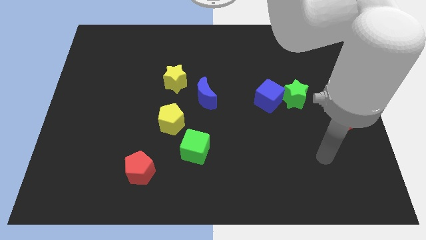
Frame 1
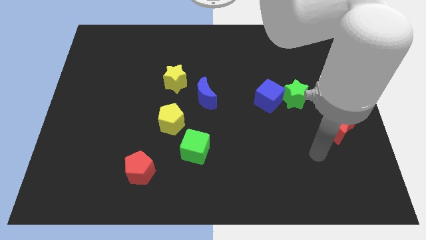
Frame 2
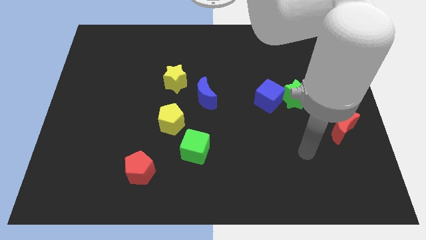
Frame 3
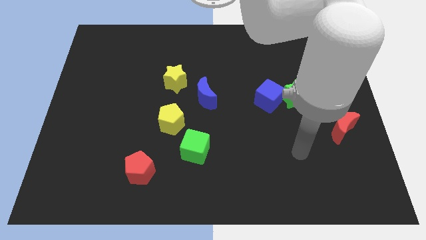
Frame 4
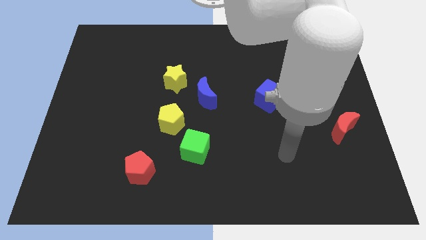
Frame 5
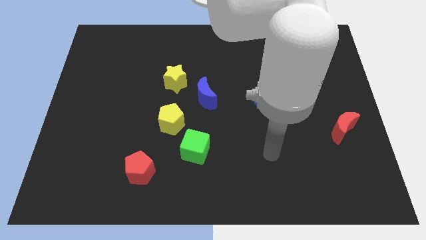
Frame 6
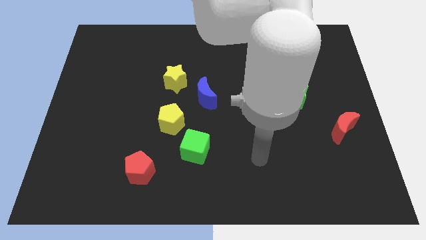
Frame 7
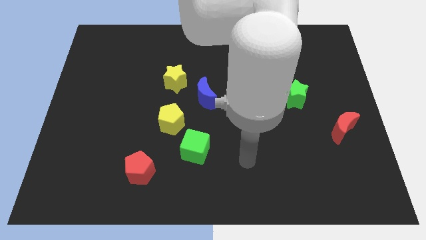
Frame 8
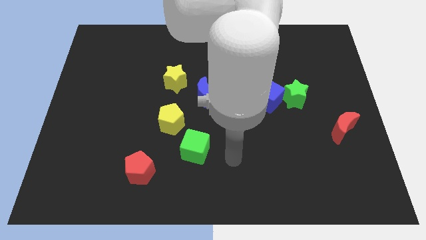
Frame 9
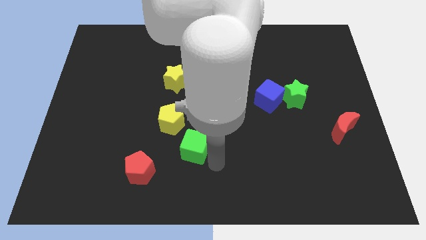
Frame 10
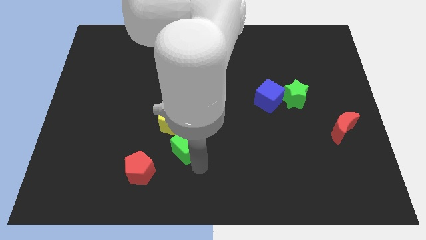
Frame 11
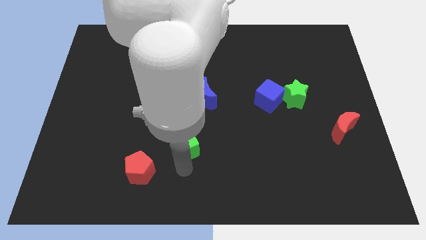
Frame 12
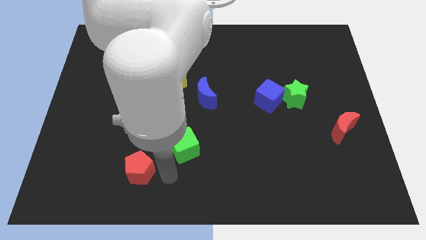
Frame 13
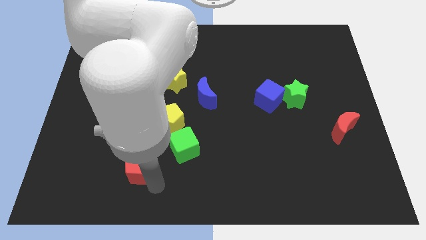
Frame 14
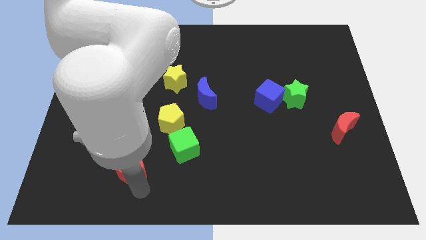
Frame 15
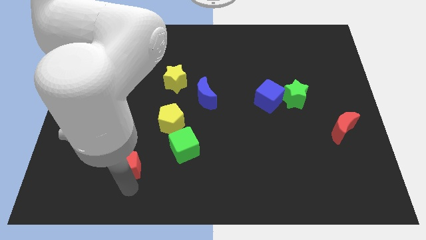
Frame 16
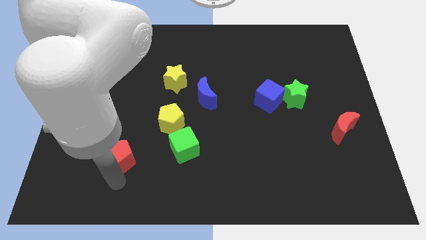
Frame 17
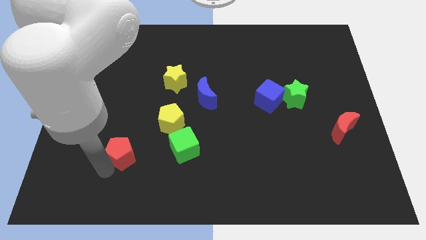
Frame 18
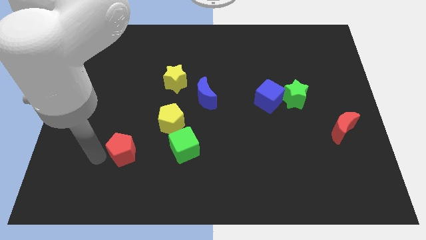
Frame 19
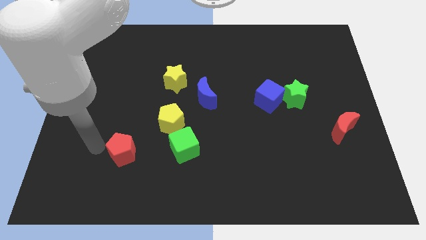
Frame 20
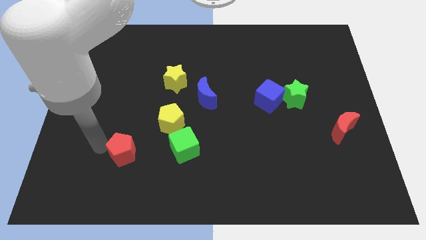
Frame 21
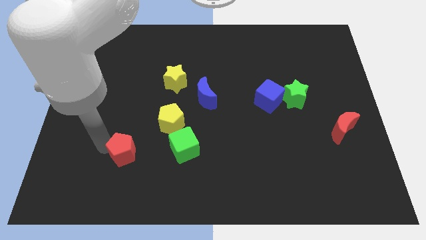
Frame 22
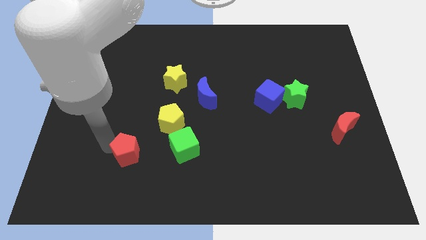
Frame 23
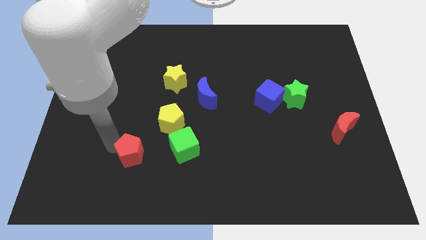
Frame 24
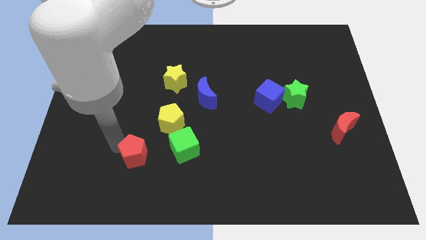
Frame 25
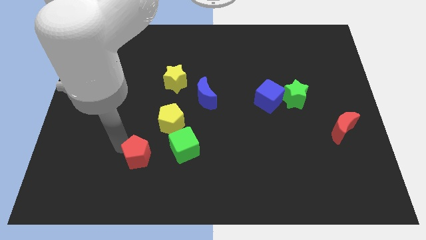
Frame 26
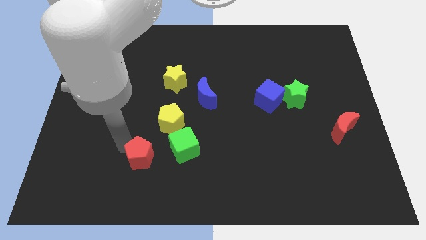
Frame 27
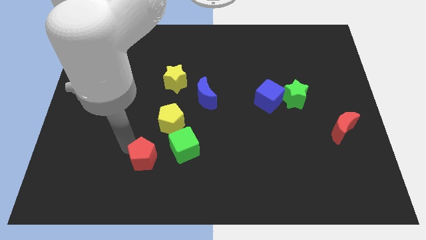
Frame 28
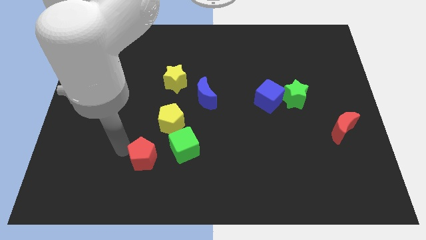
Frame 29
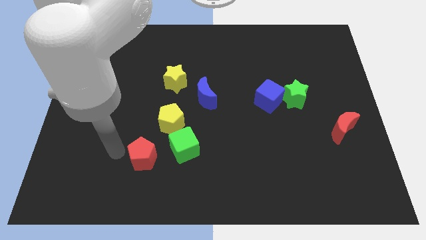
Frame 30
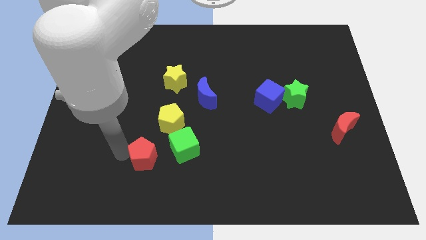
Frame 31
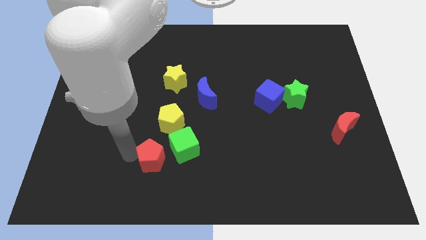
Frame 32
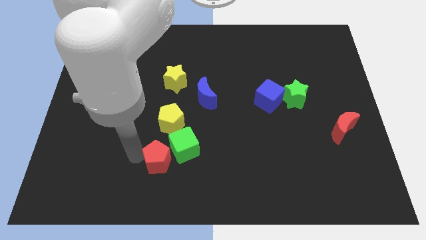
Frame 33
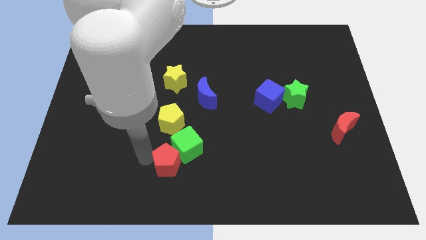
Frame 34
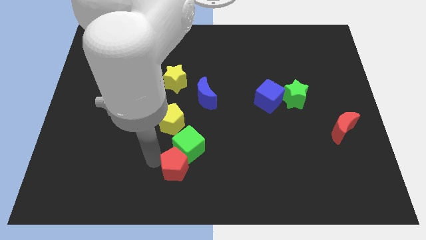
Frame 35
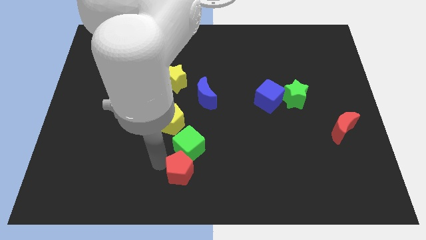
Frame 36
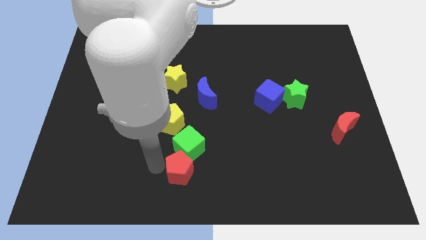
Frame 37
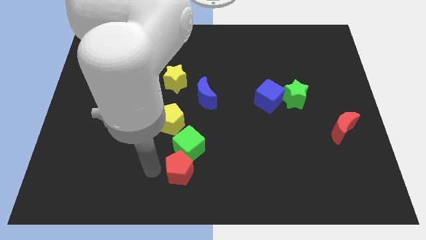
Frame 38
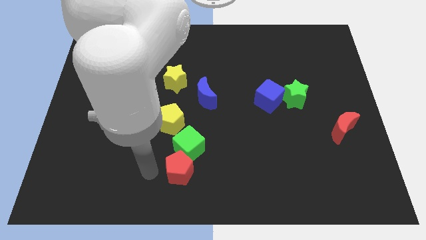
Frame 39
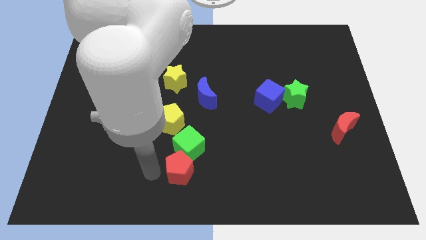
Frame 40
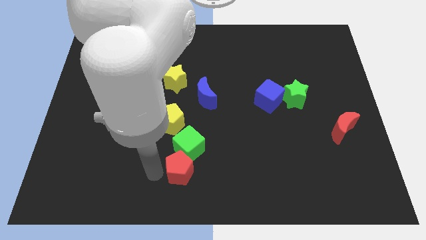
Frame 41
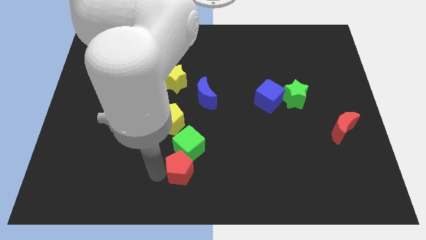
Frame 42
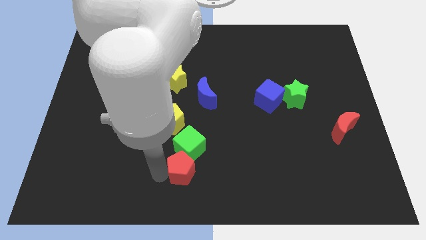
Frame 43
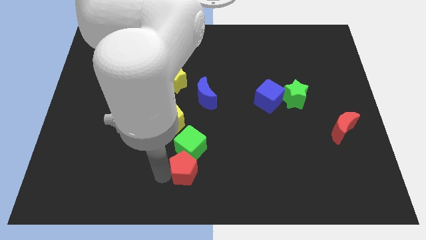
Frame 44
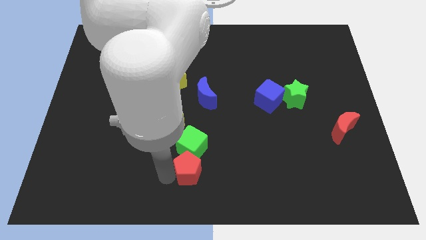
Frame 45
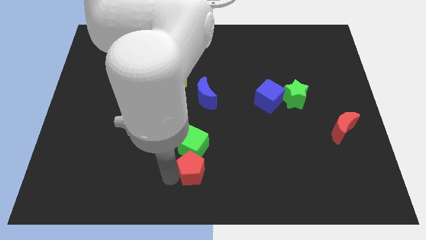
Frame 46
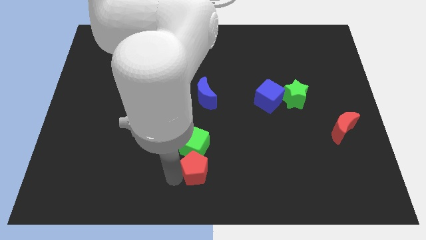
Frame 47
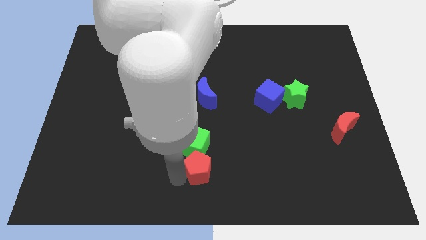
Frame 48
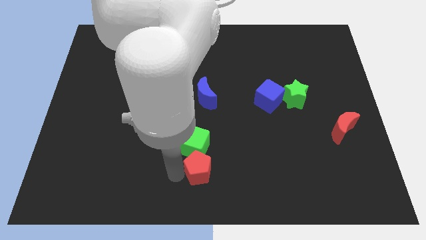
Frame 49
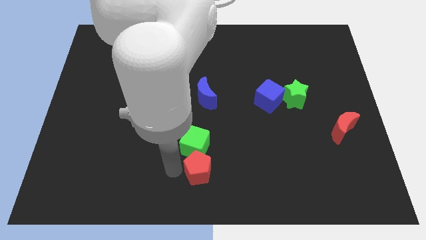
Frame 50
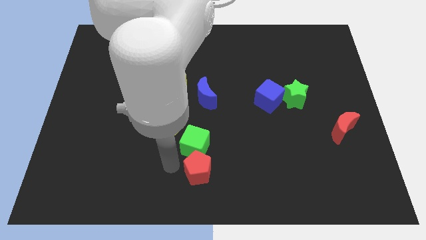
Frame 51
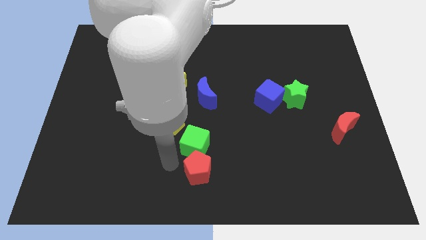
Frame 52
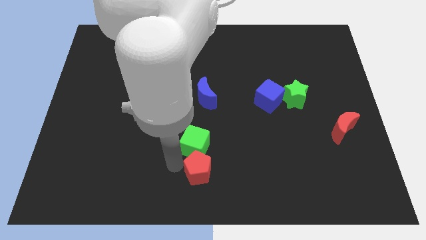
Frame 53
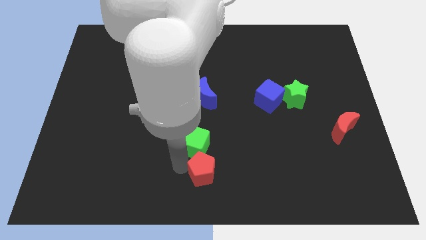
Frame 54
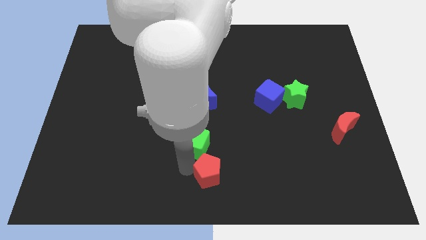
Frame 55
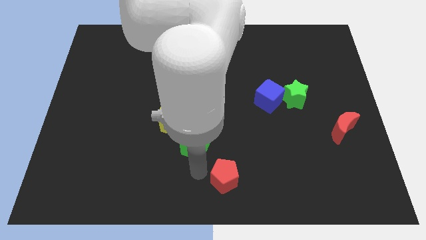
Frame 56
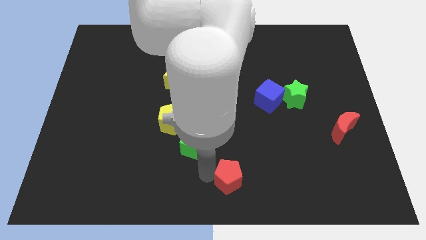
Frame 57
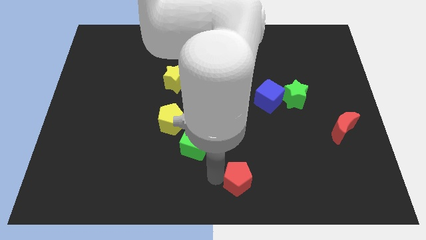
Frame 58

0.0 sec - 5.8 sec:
slide the red pentagon right

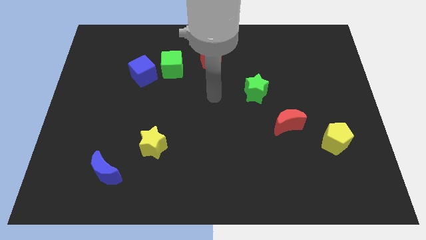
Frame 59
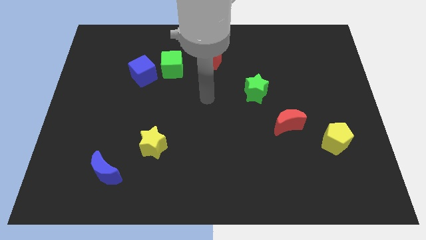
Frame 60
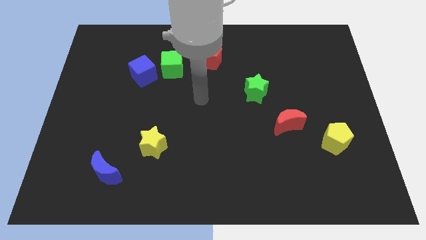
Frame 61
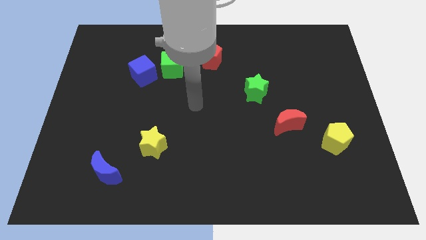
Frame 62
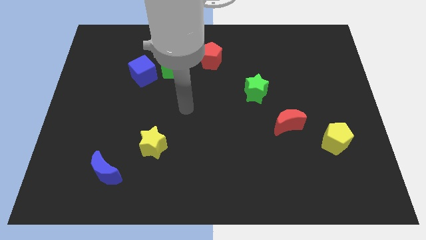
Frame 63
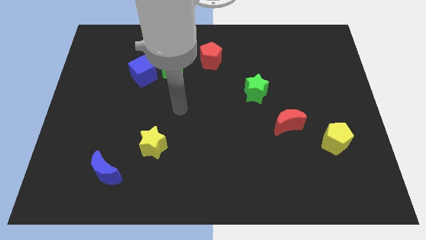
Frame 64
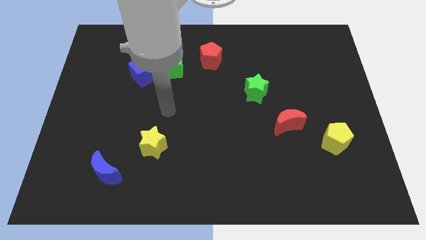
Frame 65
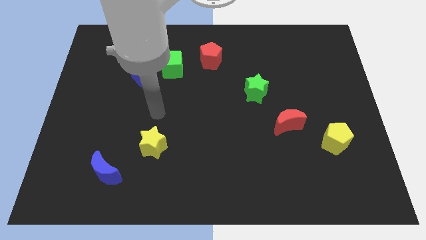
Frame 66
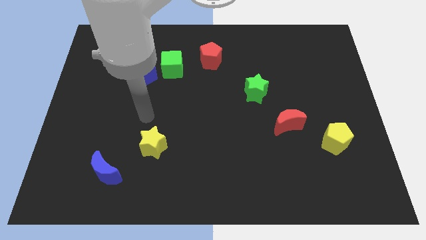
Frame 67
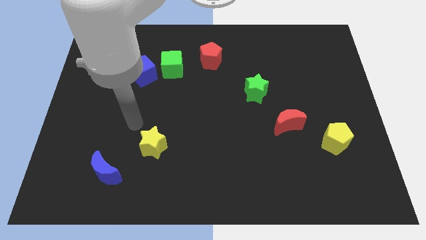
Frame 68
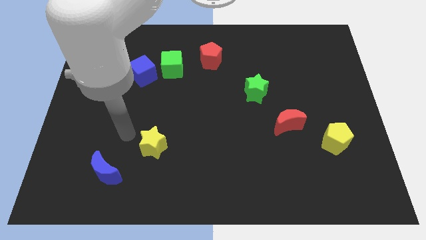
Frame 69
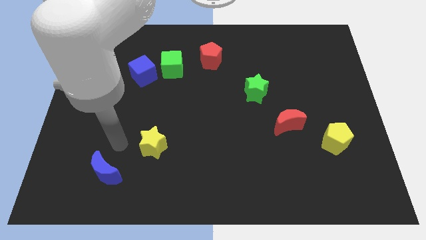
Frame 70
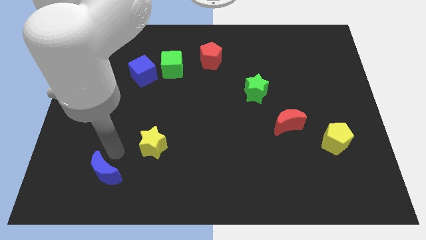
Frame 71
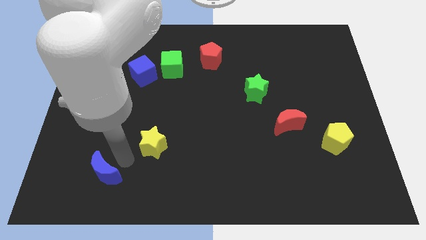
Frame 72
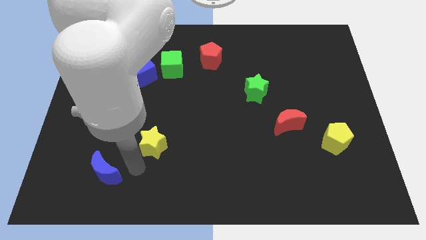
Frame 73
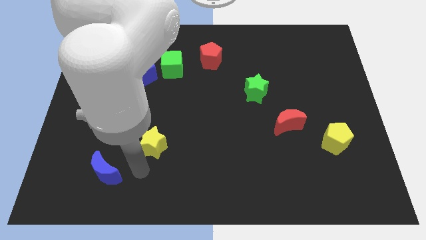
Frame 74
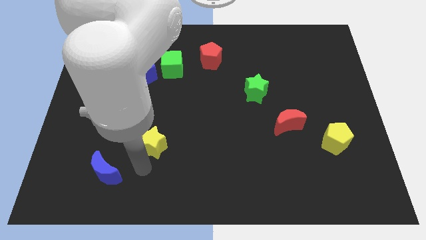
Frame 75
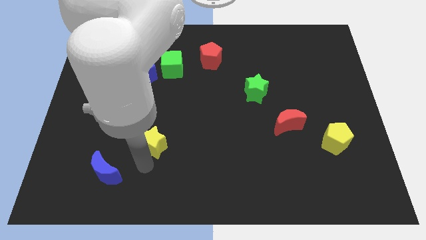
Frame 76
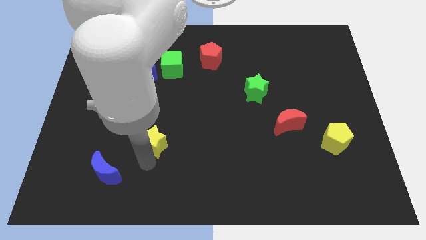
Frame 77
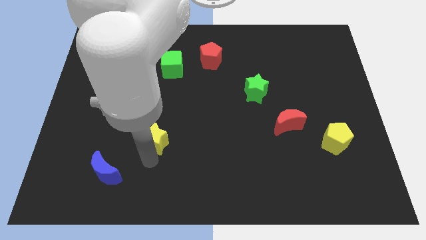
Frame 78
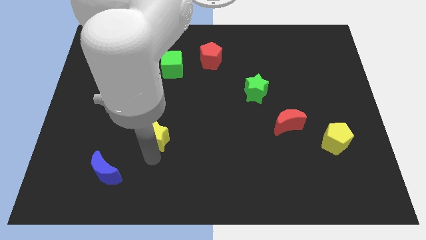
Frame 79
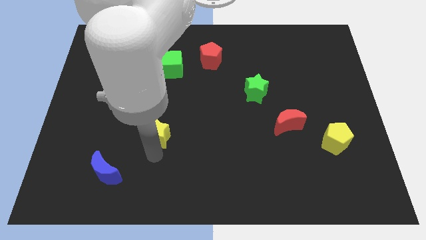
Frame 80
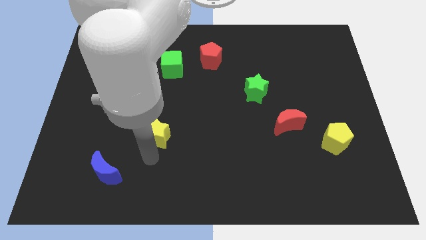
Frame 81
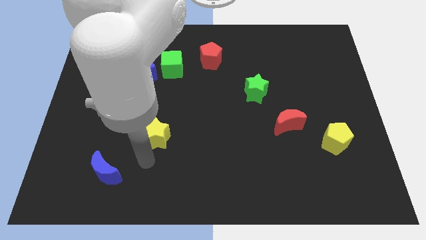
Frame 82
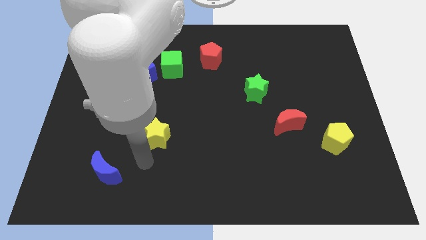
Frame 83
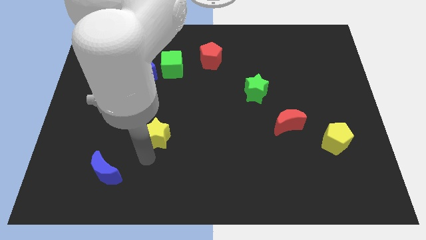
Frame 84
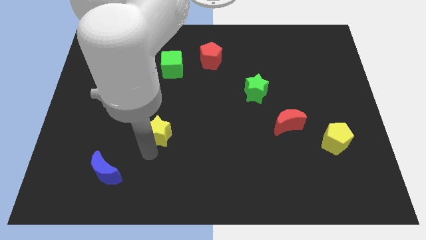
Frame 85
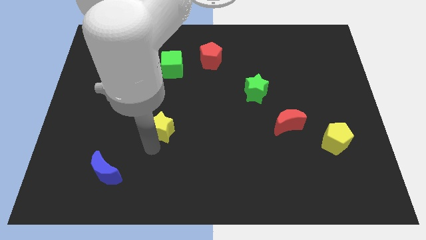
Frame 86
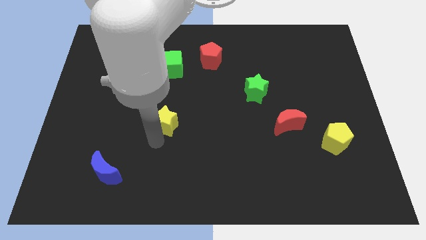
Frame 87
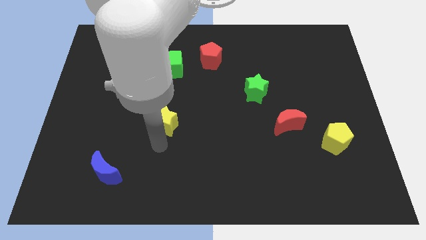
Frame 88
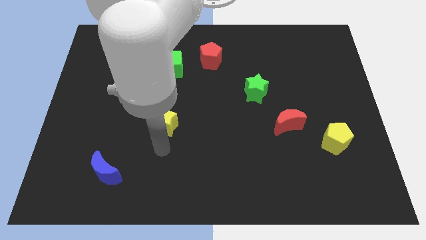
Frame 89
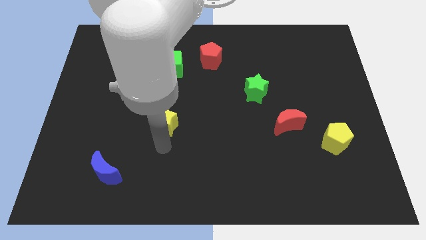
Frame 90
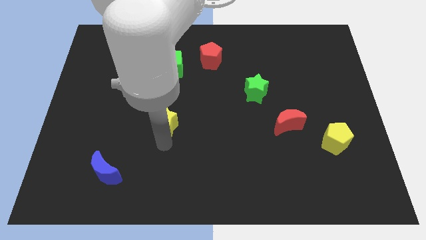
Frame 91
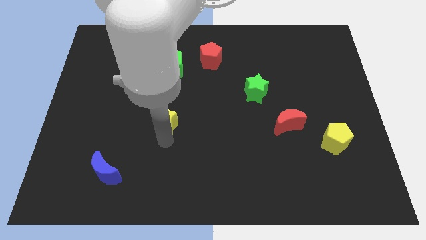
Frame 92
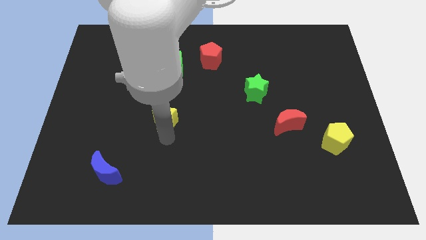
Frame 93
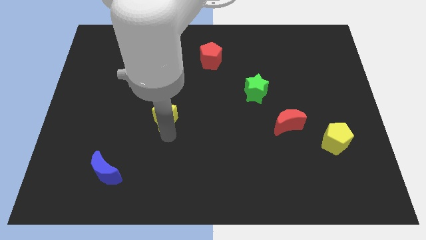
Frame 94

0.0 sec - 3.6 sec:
slightly push the yellow star up
